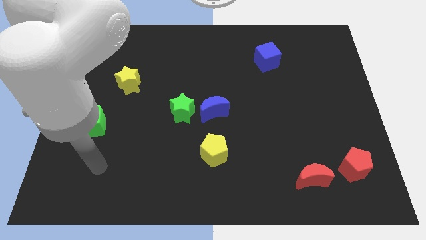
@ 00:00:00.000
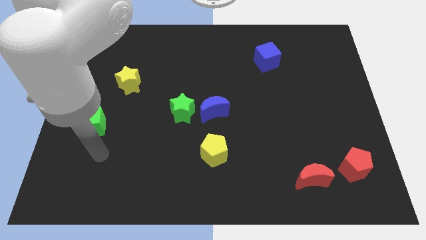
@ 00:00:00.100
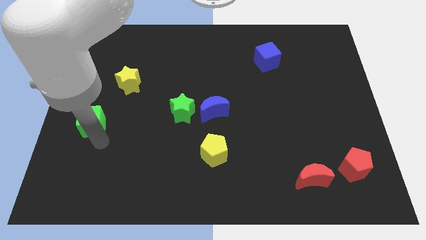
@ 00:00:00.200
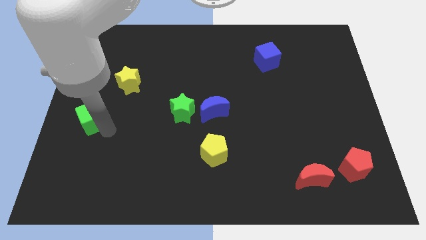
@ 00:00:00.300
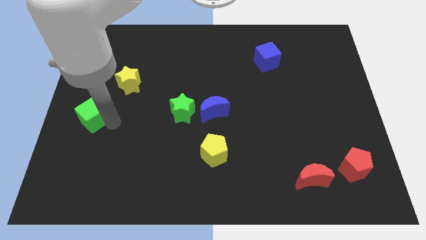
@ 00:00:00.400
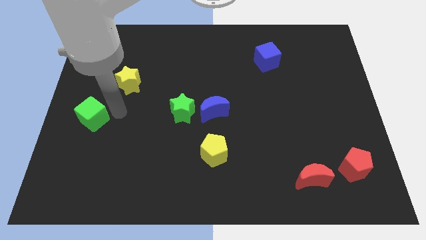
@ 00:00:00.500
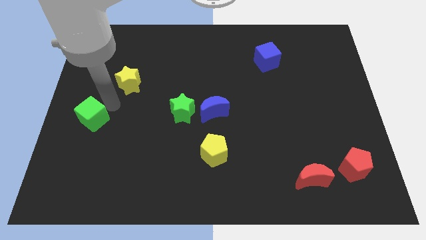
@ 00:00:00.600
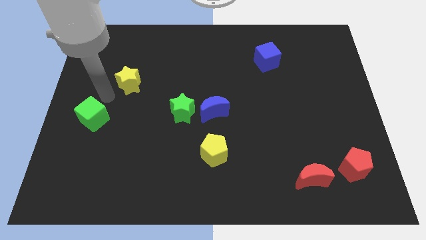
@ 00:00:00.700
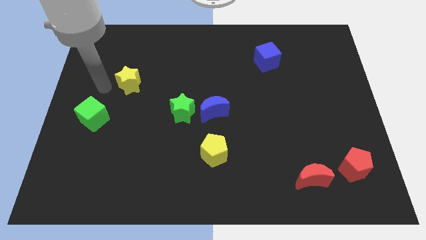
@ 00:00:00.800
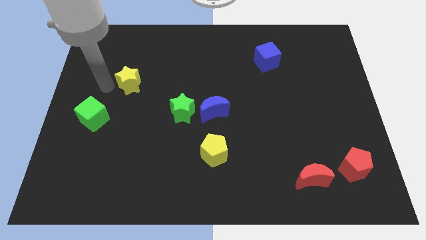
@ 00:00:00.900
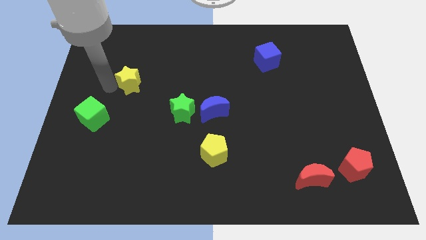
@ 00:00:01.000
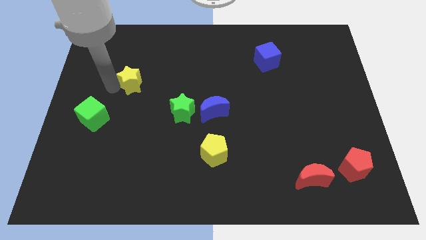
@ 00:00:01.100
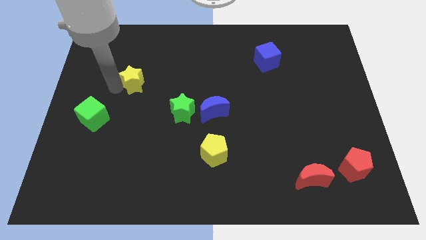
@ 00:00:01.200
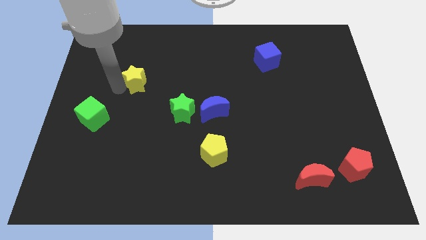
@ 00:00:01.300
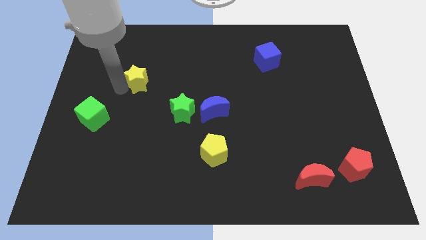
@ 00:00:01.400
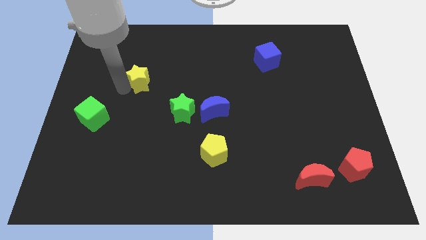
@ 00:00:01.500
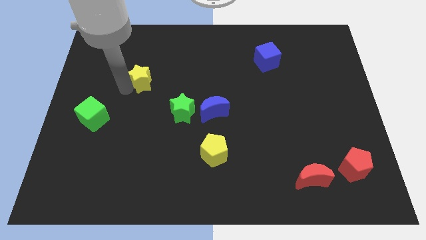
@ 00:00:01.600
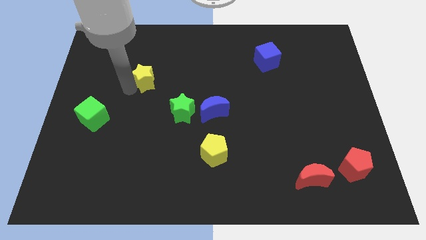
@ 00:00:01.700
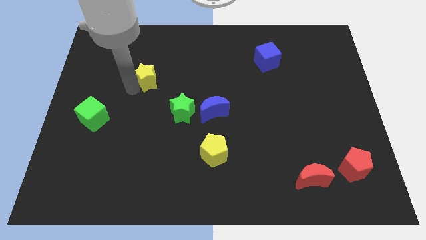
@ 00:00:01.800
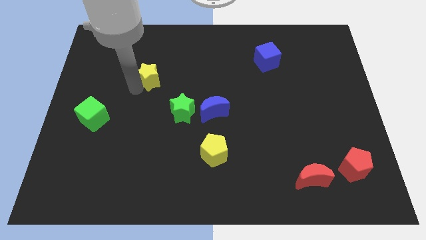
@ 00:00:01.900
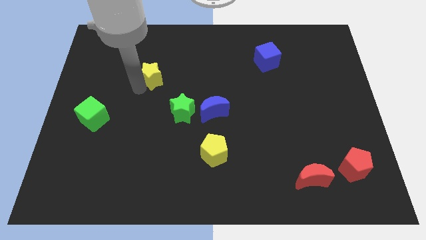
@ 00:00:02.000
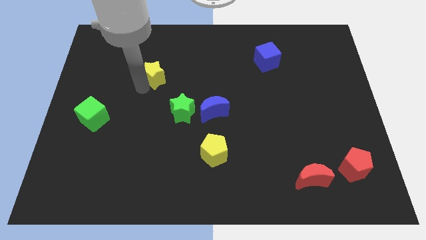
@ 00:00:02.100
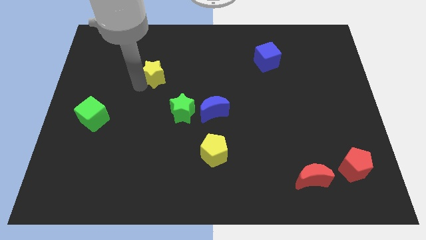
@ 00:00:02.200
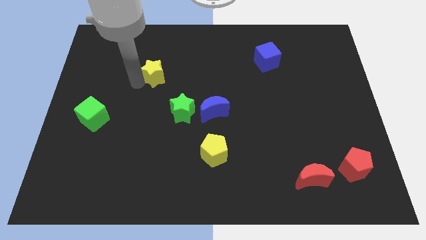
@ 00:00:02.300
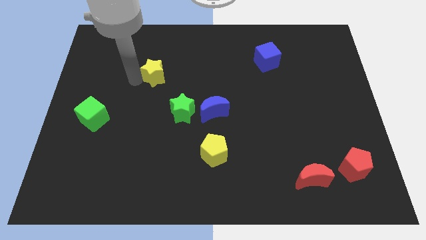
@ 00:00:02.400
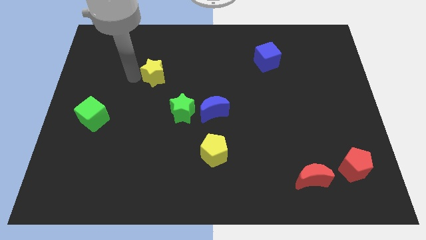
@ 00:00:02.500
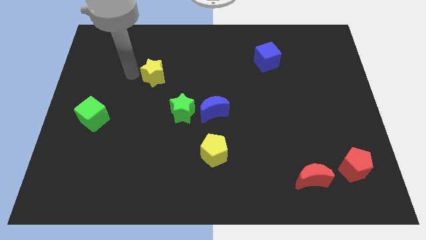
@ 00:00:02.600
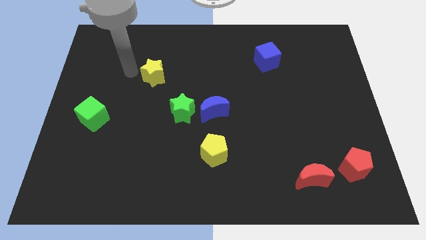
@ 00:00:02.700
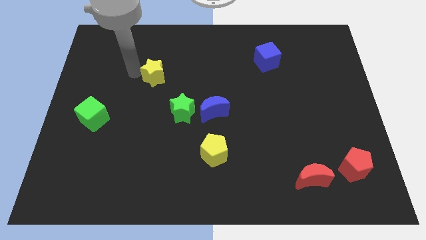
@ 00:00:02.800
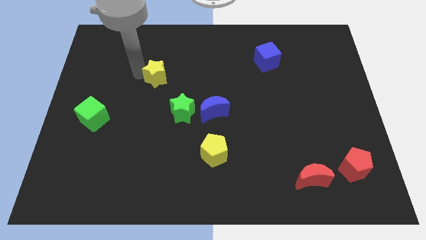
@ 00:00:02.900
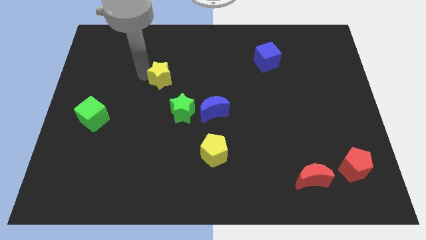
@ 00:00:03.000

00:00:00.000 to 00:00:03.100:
push the yellow star right slightly

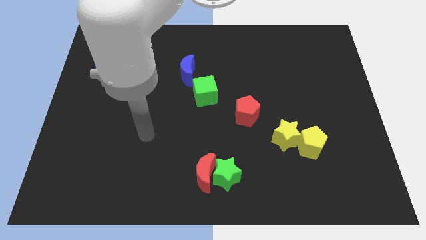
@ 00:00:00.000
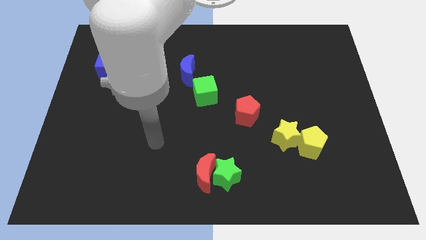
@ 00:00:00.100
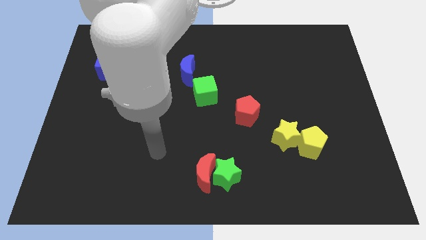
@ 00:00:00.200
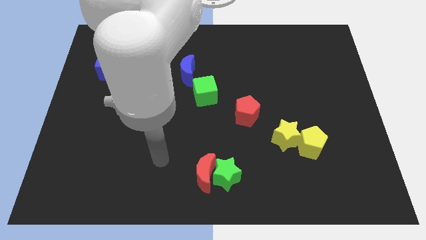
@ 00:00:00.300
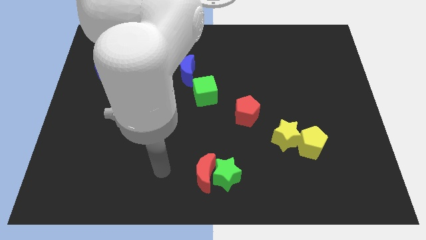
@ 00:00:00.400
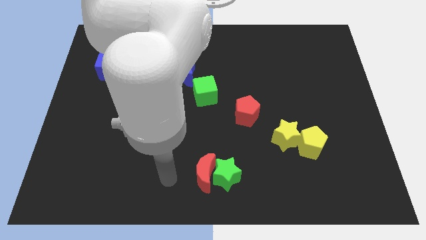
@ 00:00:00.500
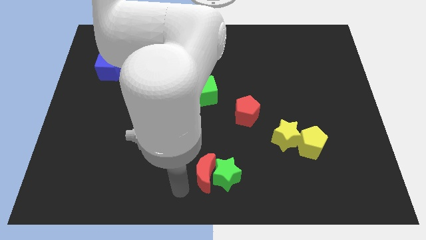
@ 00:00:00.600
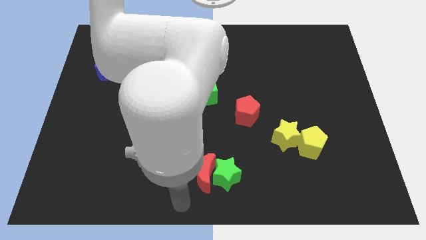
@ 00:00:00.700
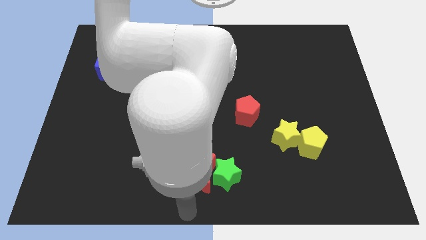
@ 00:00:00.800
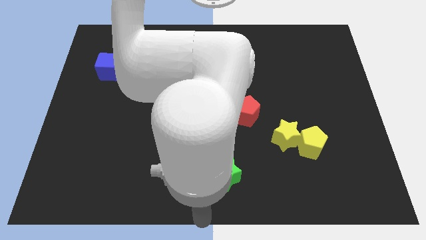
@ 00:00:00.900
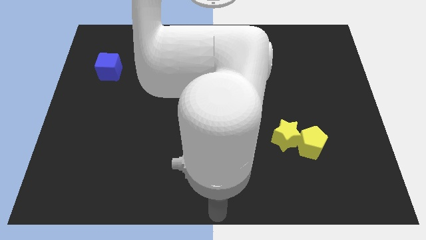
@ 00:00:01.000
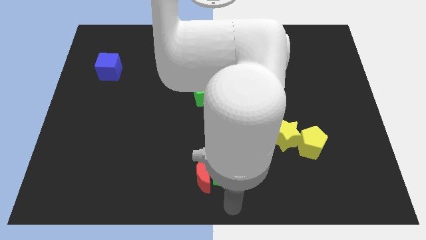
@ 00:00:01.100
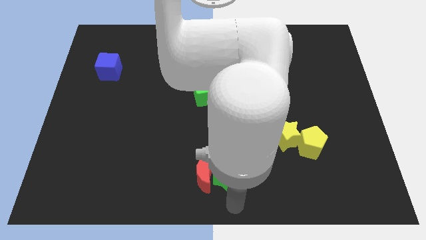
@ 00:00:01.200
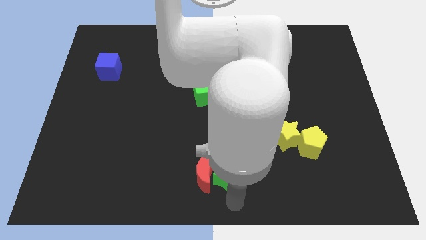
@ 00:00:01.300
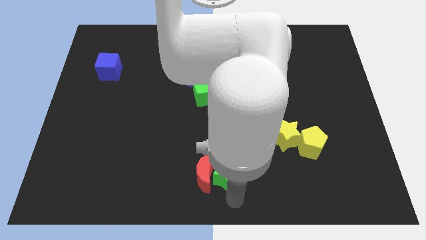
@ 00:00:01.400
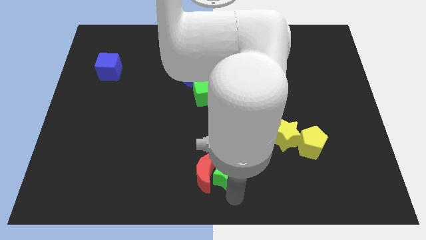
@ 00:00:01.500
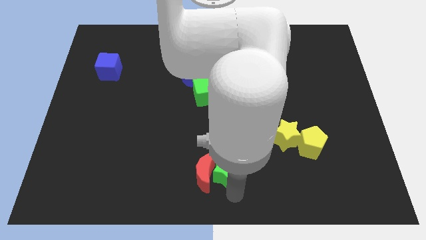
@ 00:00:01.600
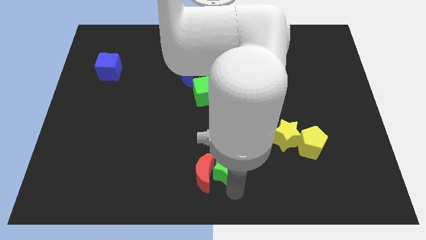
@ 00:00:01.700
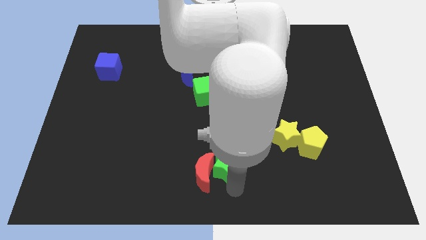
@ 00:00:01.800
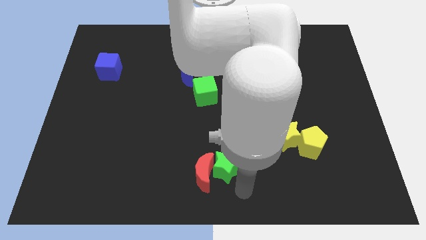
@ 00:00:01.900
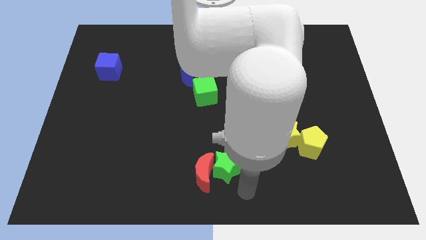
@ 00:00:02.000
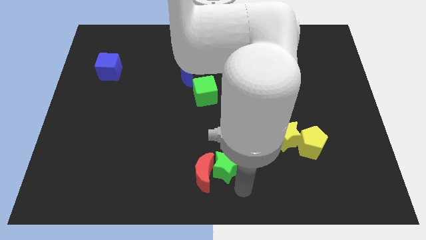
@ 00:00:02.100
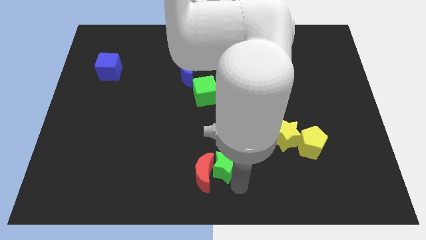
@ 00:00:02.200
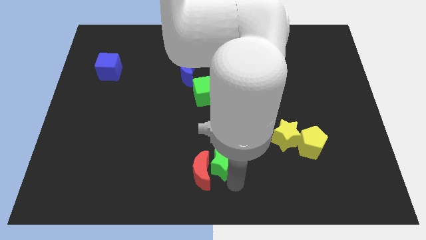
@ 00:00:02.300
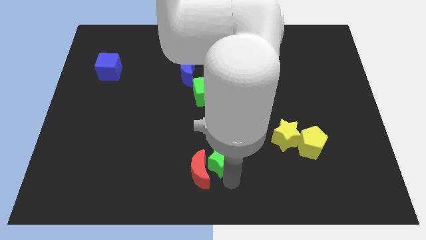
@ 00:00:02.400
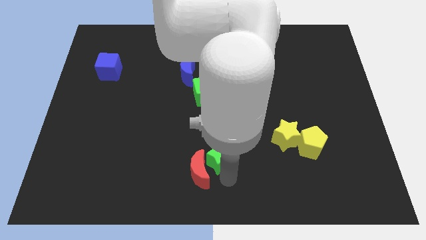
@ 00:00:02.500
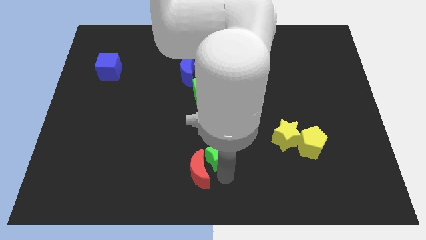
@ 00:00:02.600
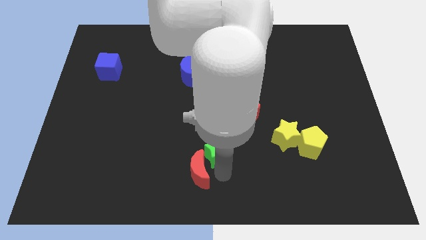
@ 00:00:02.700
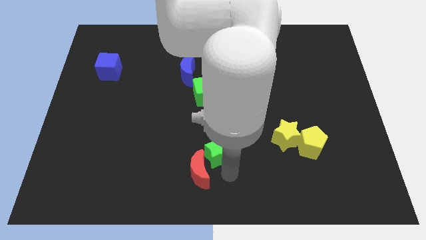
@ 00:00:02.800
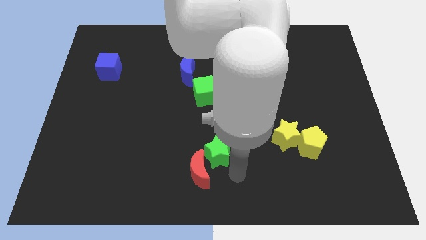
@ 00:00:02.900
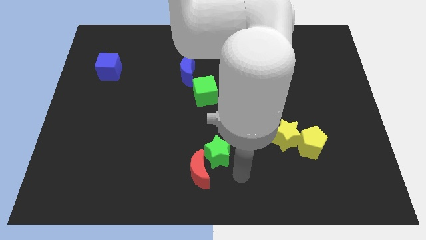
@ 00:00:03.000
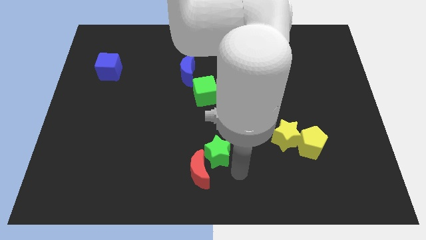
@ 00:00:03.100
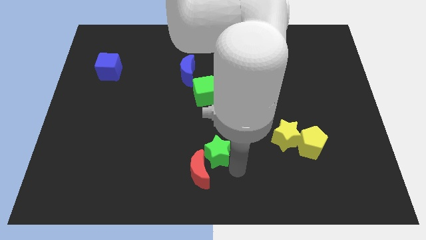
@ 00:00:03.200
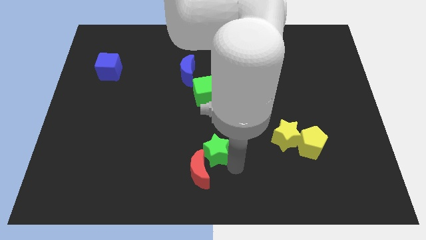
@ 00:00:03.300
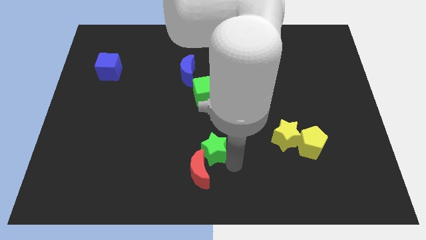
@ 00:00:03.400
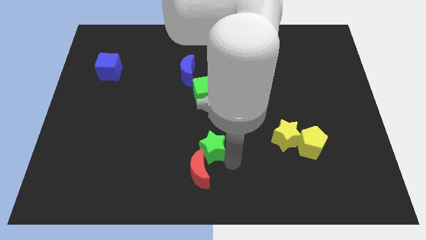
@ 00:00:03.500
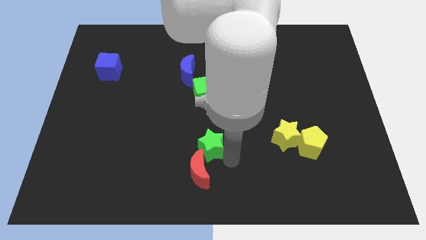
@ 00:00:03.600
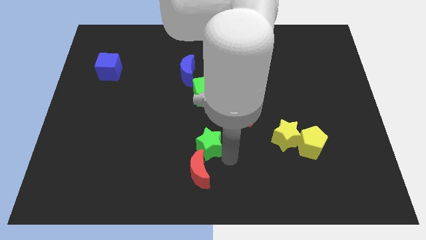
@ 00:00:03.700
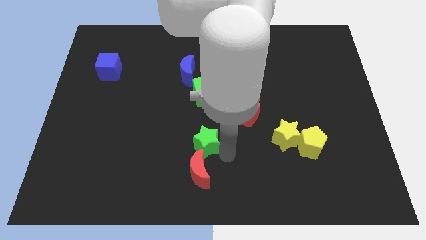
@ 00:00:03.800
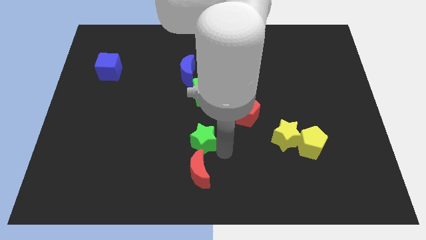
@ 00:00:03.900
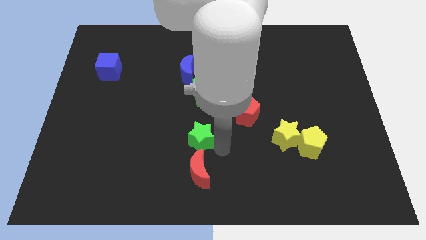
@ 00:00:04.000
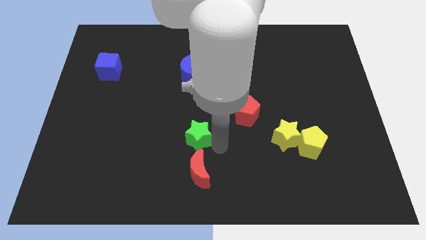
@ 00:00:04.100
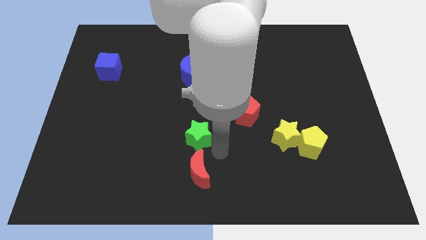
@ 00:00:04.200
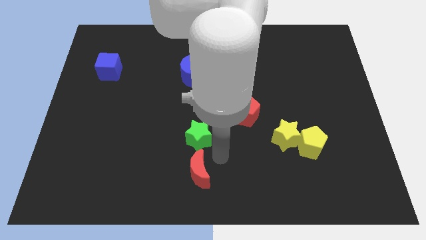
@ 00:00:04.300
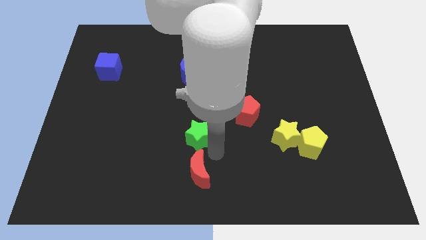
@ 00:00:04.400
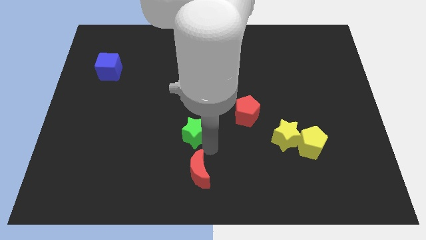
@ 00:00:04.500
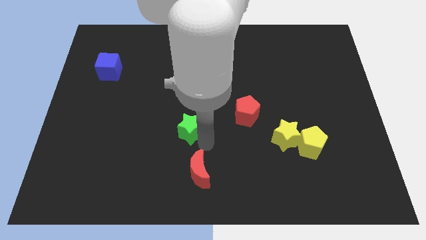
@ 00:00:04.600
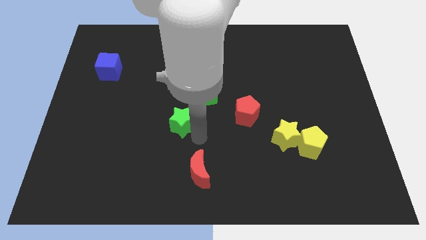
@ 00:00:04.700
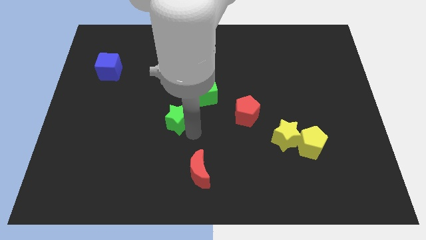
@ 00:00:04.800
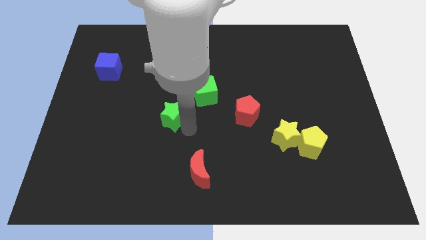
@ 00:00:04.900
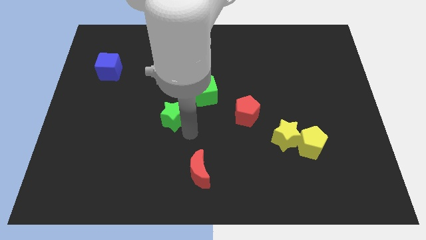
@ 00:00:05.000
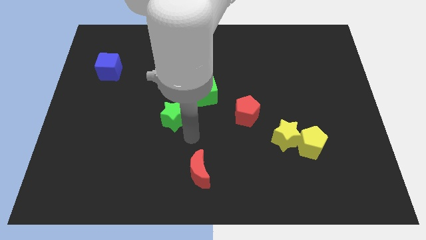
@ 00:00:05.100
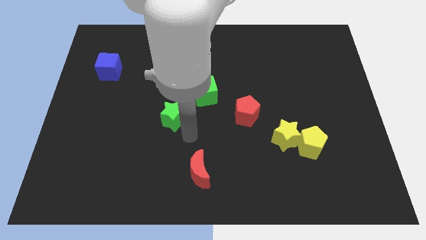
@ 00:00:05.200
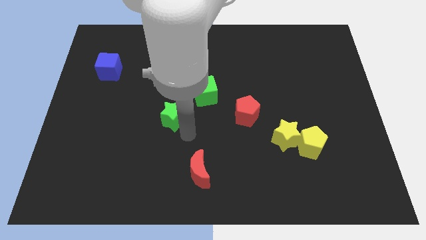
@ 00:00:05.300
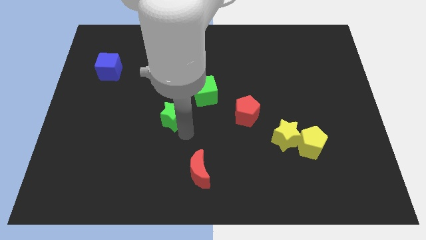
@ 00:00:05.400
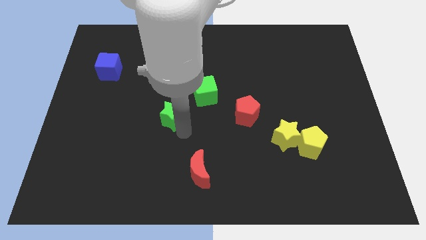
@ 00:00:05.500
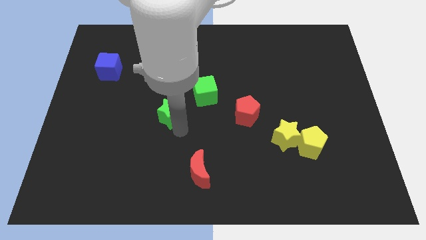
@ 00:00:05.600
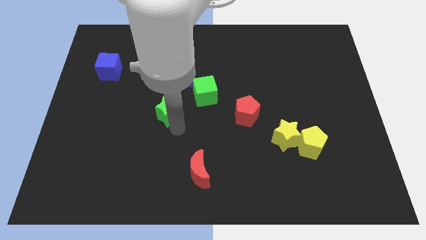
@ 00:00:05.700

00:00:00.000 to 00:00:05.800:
push the green star diagonally up and left
